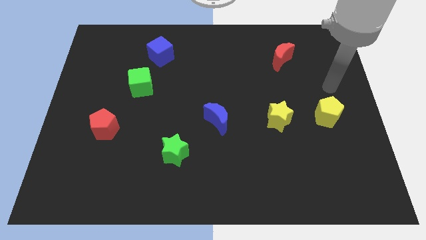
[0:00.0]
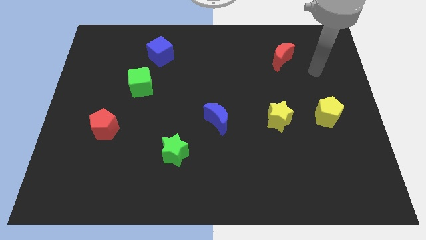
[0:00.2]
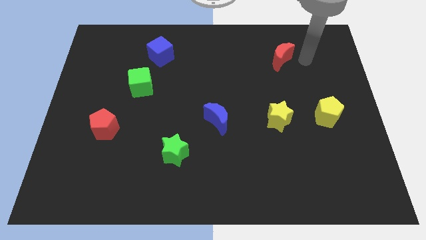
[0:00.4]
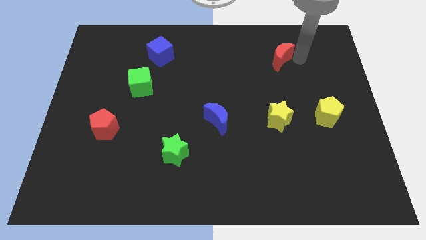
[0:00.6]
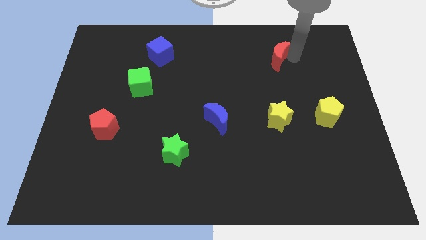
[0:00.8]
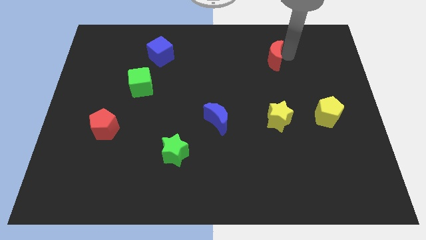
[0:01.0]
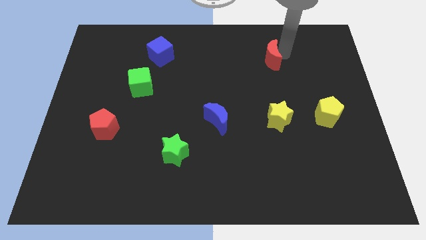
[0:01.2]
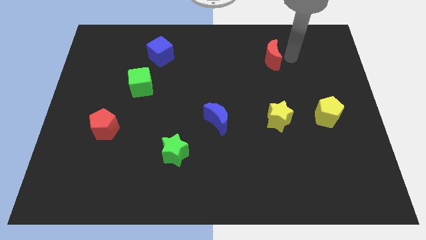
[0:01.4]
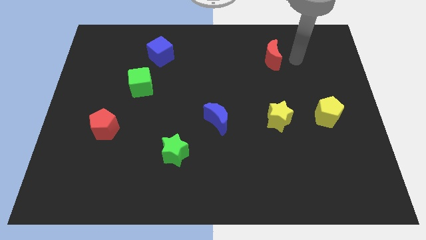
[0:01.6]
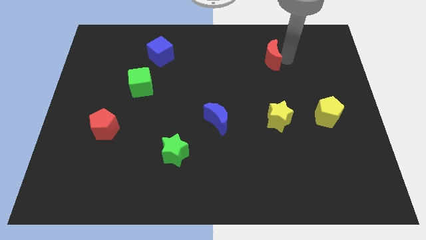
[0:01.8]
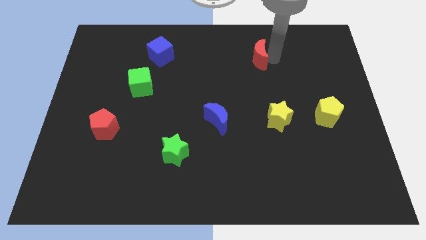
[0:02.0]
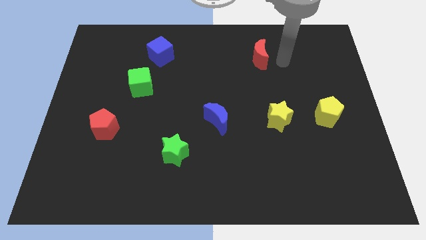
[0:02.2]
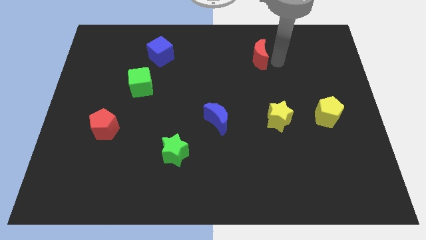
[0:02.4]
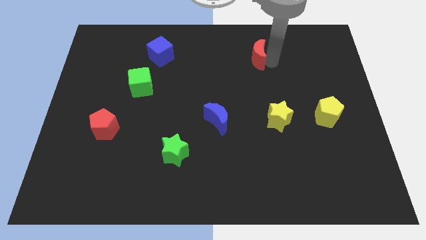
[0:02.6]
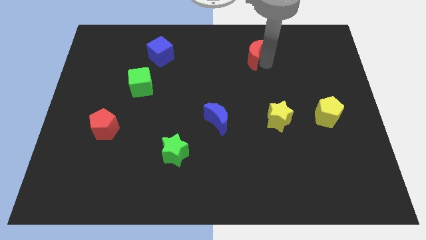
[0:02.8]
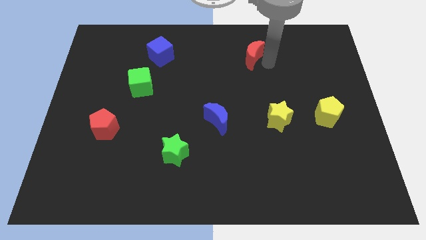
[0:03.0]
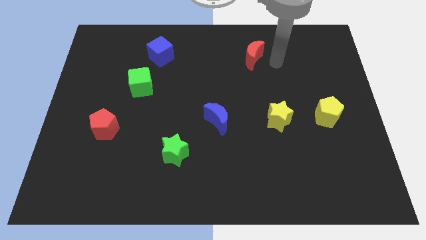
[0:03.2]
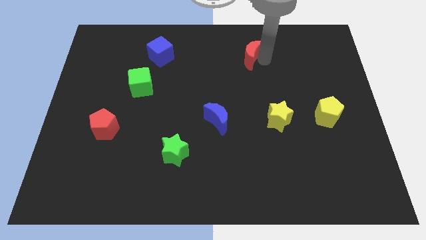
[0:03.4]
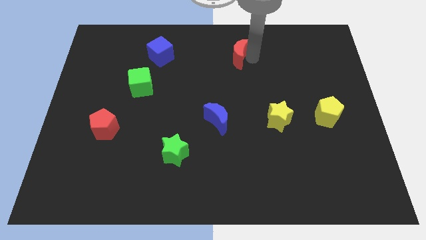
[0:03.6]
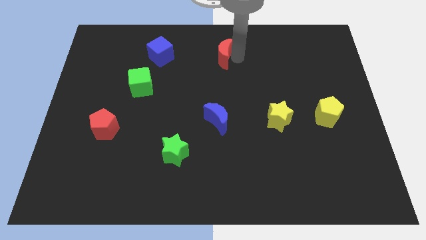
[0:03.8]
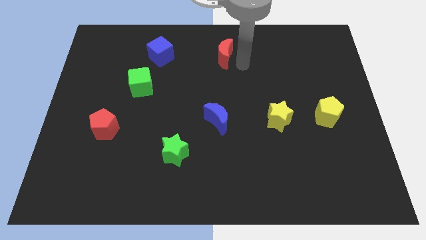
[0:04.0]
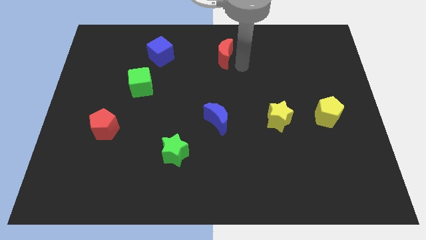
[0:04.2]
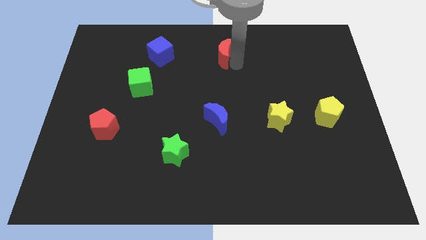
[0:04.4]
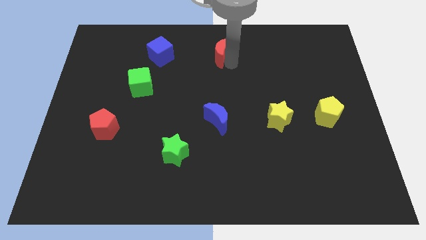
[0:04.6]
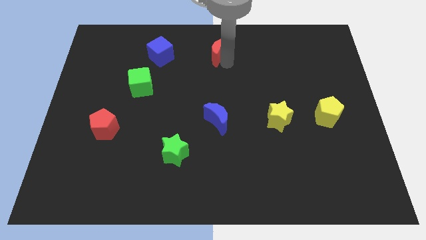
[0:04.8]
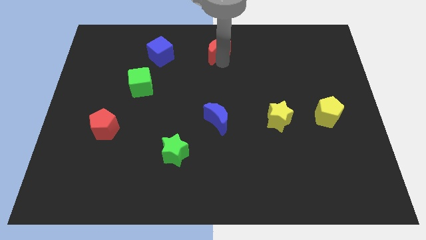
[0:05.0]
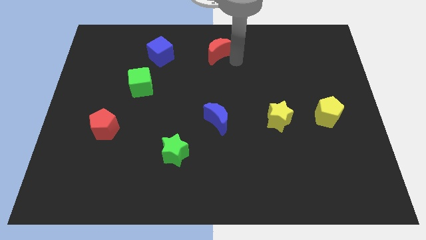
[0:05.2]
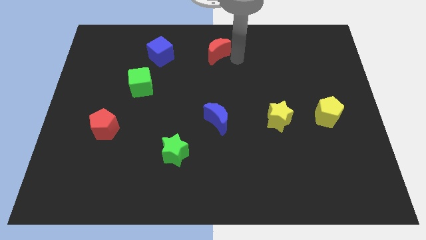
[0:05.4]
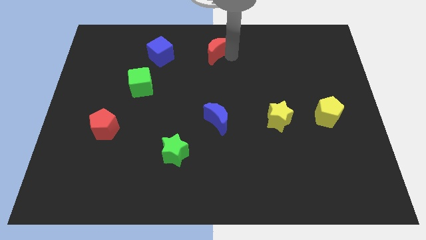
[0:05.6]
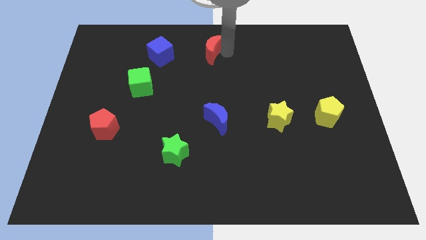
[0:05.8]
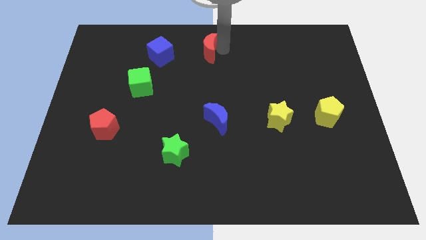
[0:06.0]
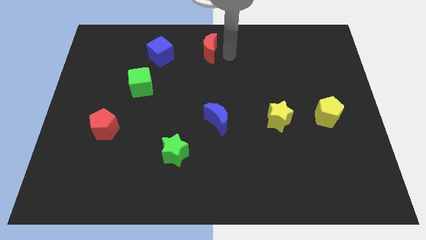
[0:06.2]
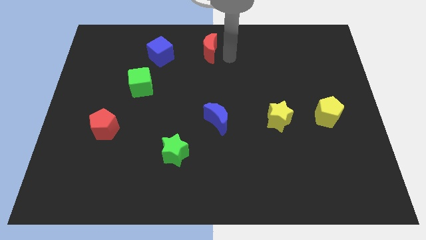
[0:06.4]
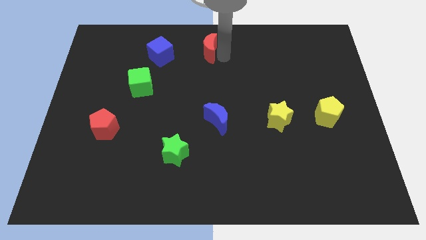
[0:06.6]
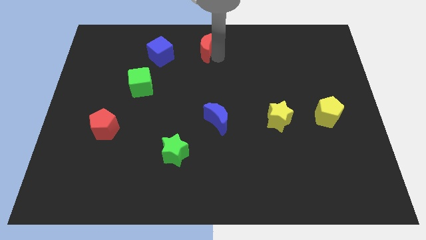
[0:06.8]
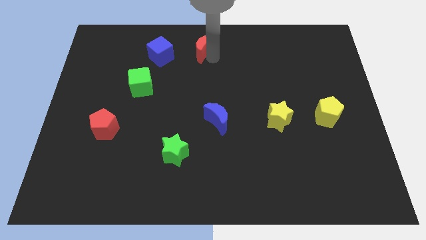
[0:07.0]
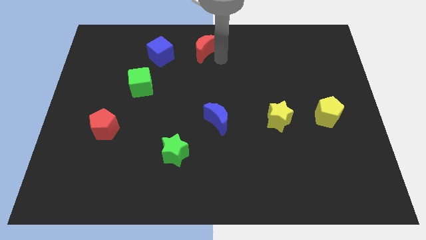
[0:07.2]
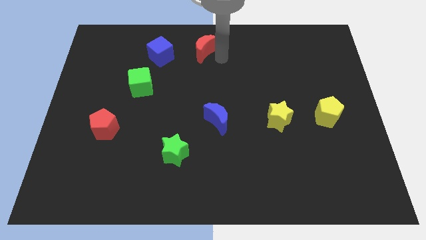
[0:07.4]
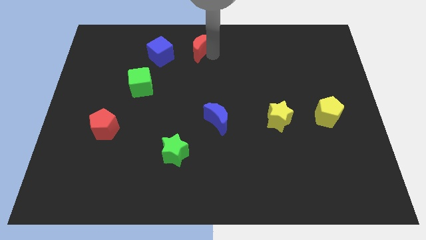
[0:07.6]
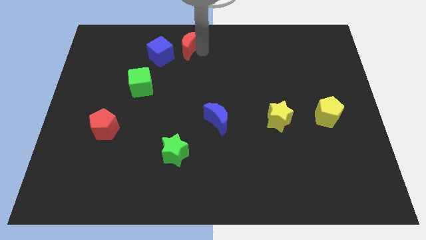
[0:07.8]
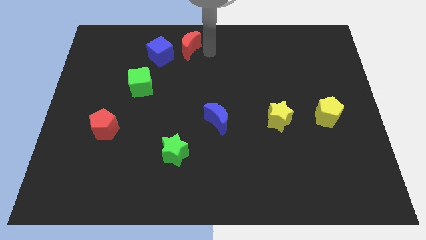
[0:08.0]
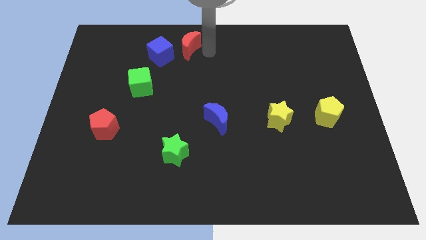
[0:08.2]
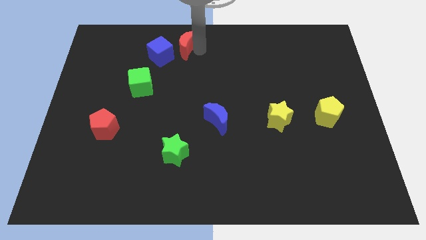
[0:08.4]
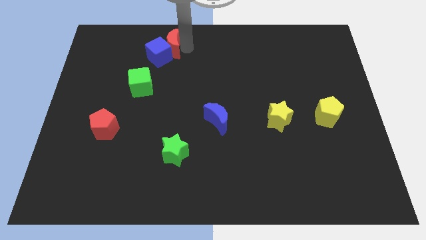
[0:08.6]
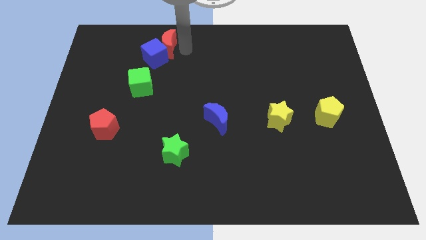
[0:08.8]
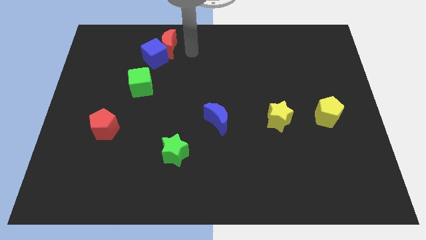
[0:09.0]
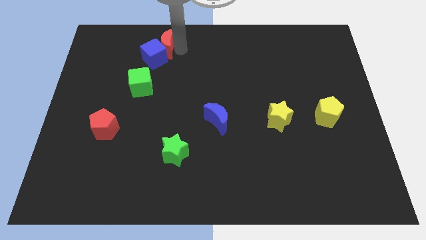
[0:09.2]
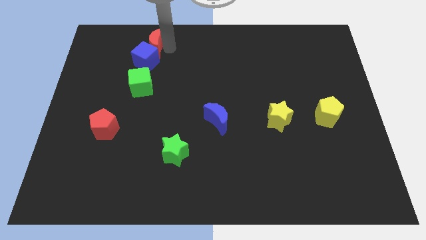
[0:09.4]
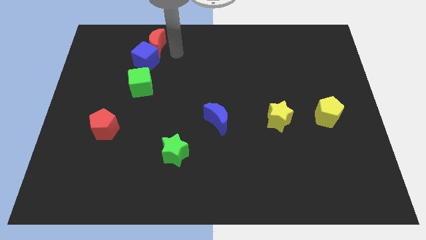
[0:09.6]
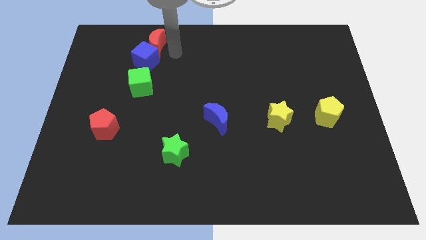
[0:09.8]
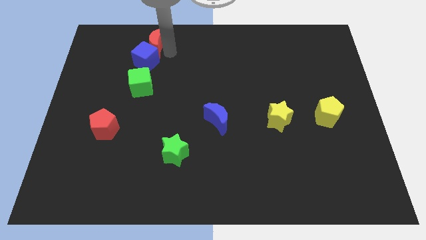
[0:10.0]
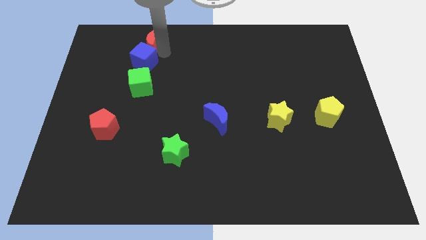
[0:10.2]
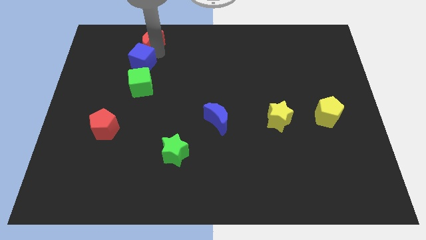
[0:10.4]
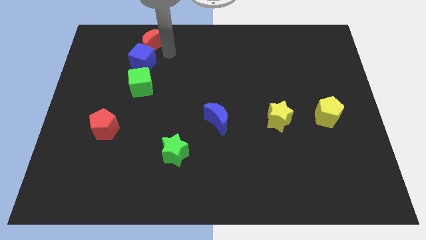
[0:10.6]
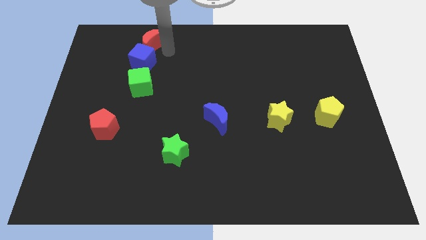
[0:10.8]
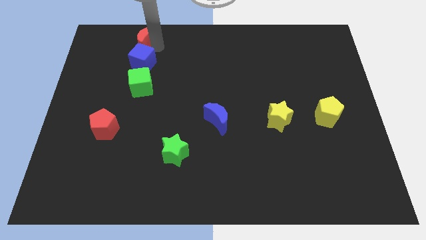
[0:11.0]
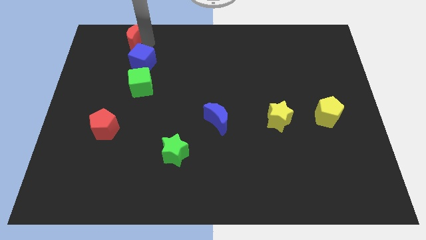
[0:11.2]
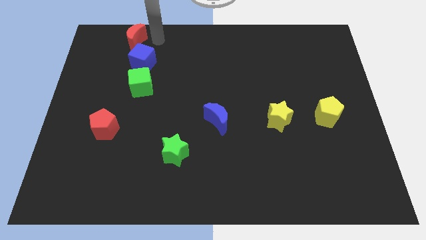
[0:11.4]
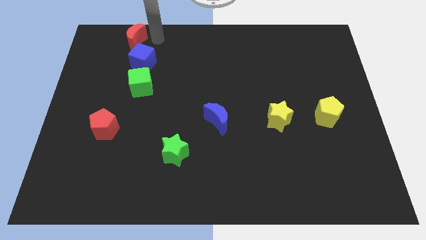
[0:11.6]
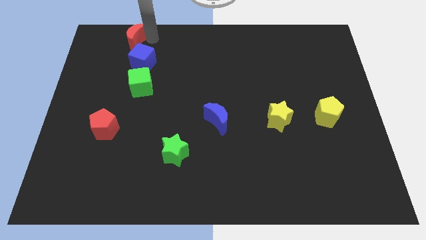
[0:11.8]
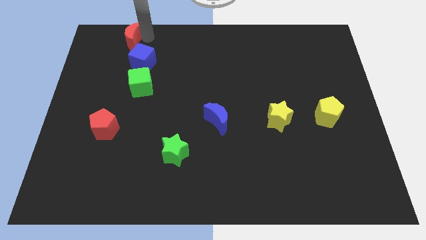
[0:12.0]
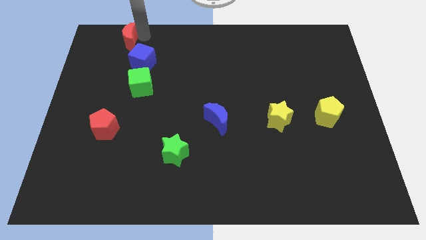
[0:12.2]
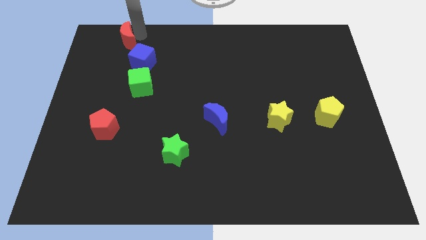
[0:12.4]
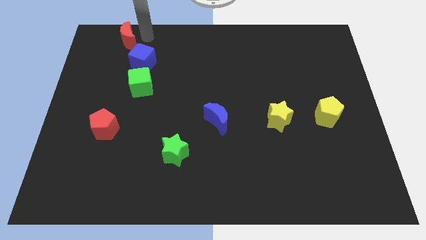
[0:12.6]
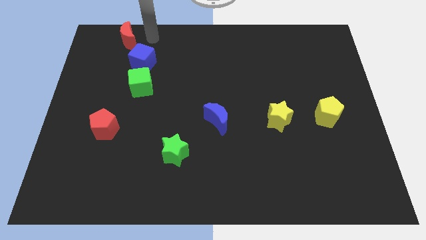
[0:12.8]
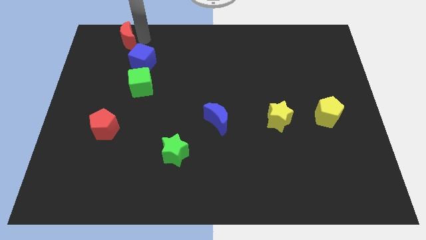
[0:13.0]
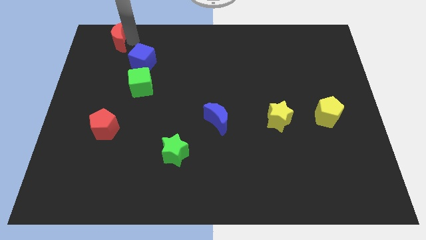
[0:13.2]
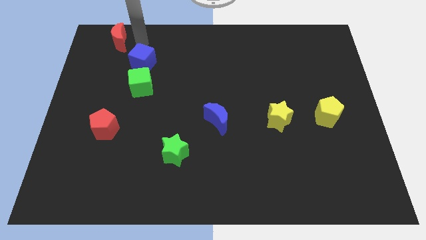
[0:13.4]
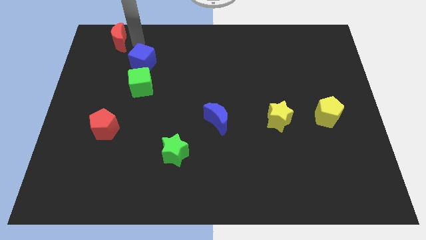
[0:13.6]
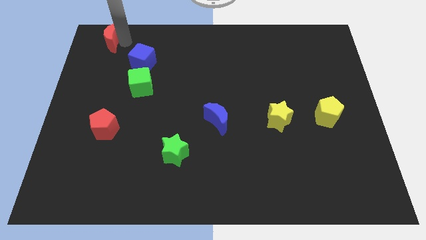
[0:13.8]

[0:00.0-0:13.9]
push the red moon to the top left corner
